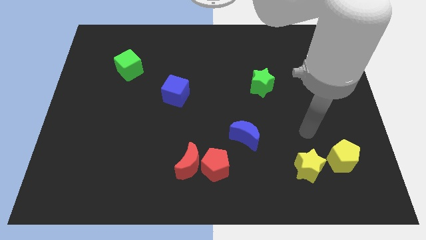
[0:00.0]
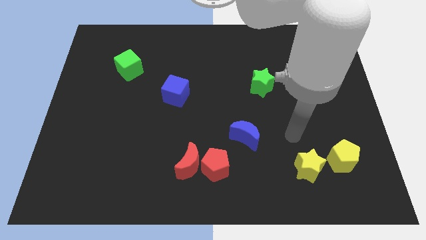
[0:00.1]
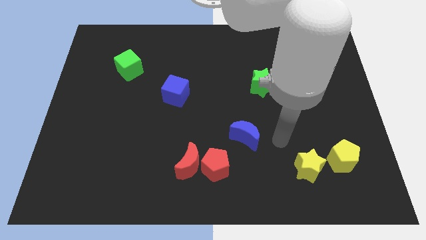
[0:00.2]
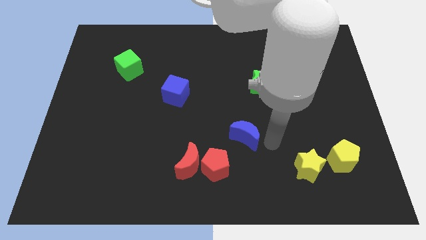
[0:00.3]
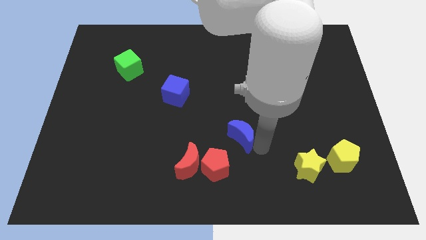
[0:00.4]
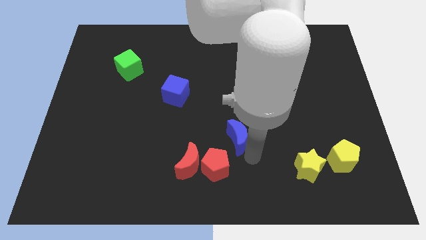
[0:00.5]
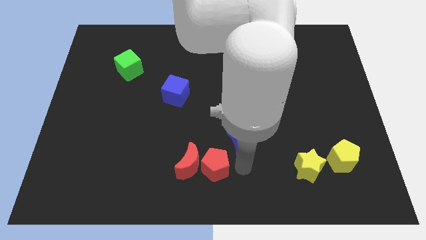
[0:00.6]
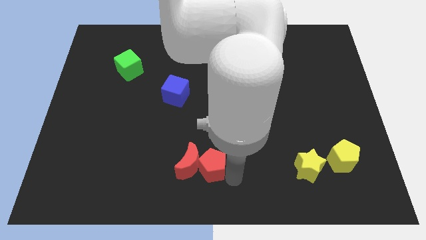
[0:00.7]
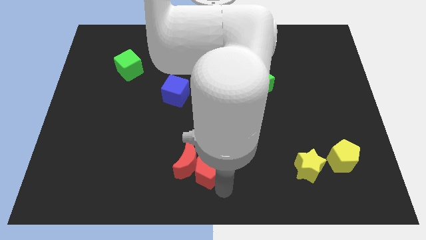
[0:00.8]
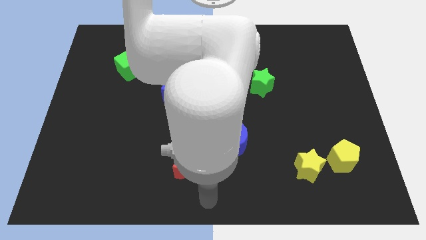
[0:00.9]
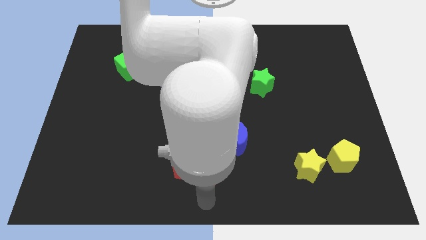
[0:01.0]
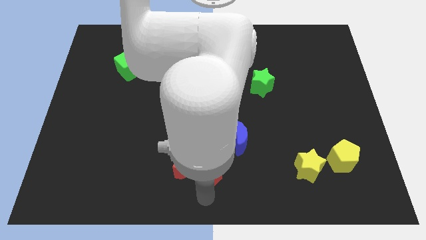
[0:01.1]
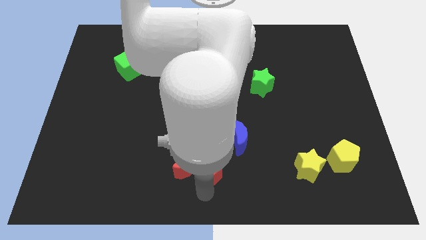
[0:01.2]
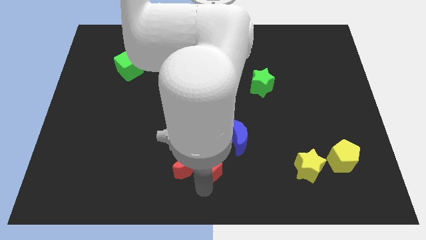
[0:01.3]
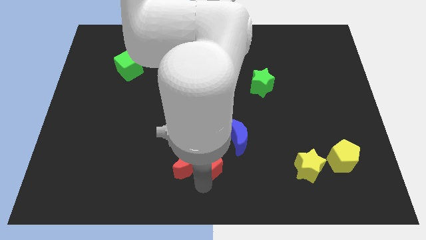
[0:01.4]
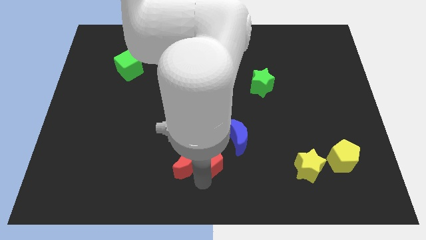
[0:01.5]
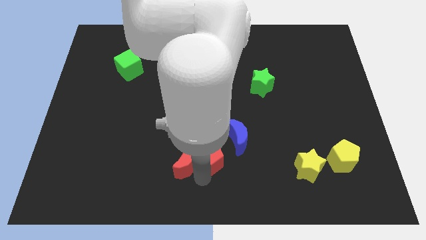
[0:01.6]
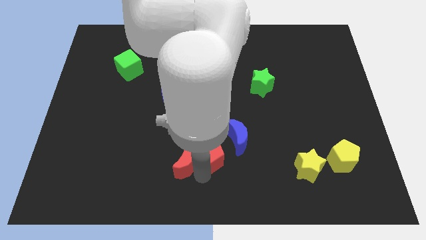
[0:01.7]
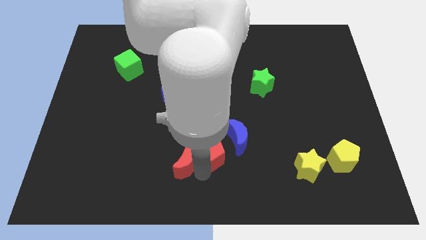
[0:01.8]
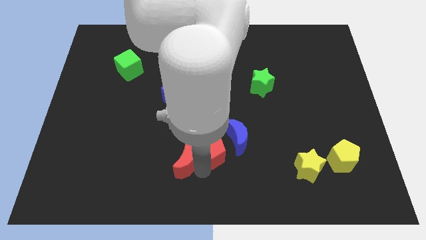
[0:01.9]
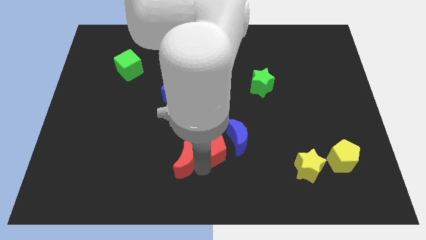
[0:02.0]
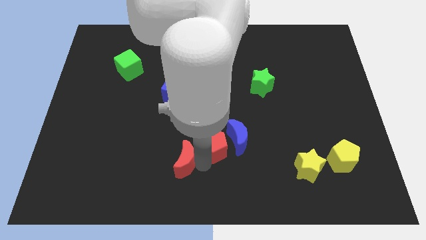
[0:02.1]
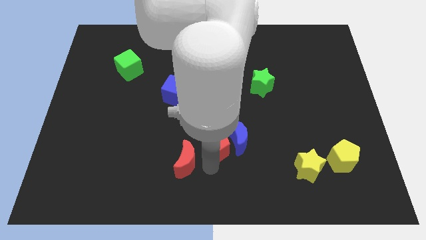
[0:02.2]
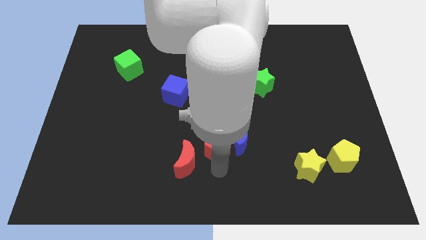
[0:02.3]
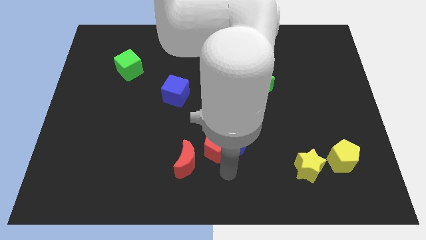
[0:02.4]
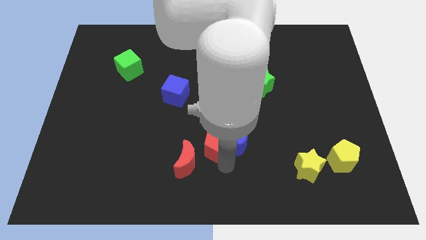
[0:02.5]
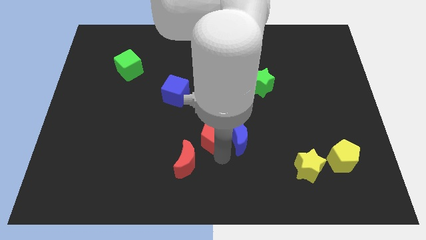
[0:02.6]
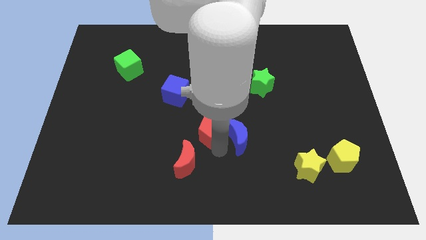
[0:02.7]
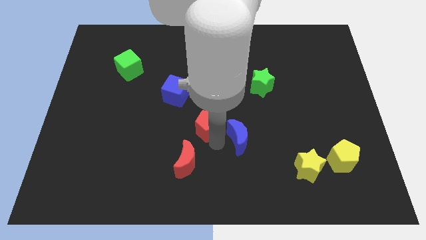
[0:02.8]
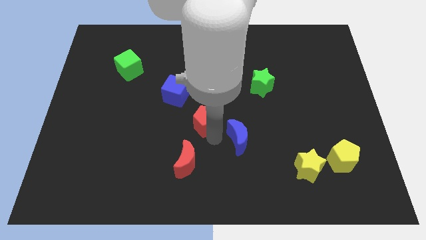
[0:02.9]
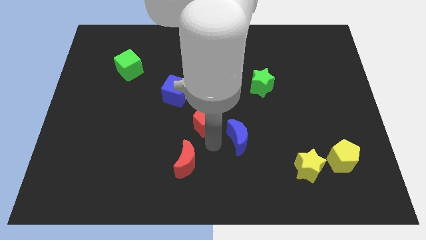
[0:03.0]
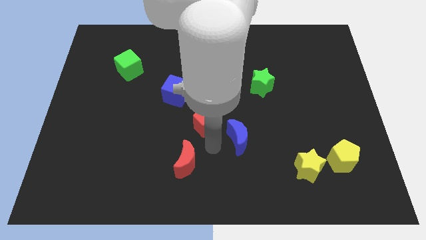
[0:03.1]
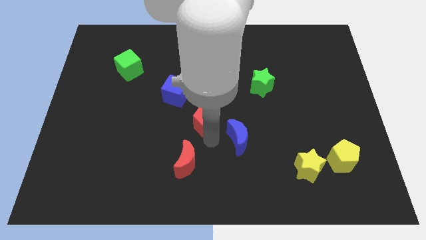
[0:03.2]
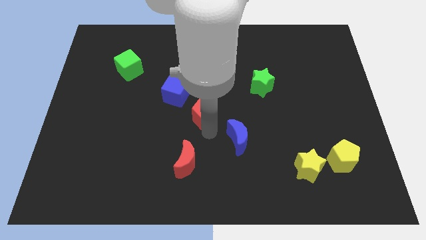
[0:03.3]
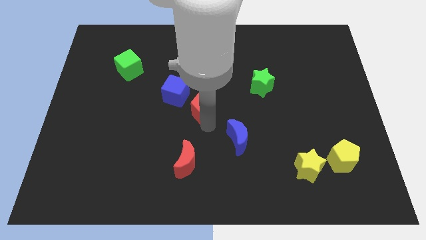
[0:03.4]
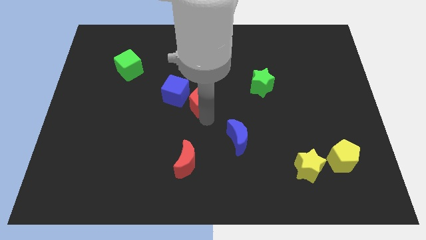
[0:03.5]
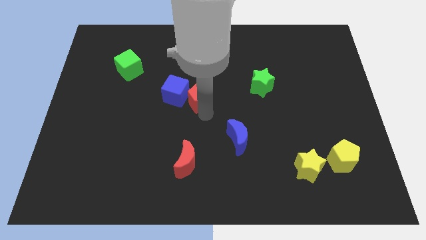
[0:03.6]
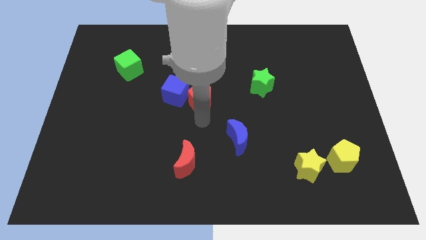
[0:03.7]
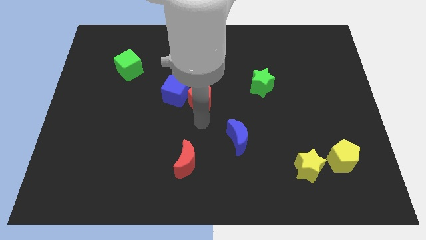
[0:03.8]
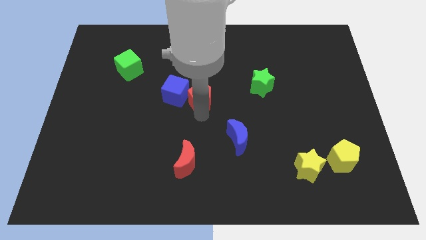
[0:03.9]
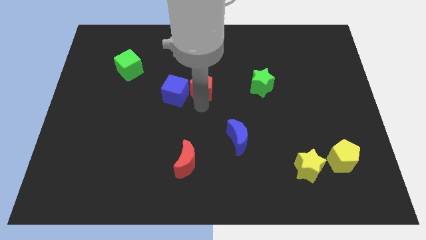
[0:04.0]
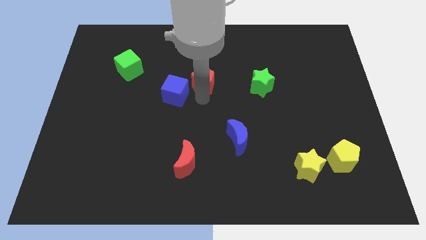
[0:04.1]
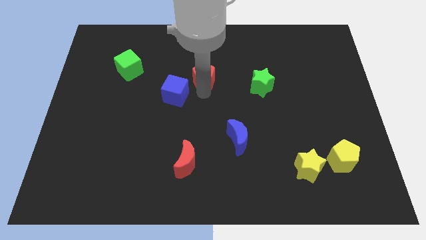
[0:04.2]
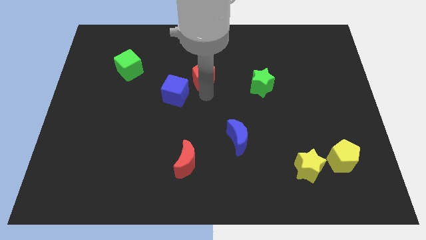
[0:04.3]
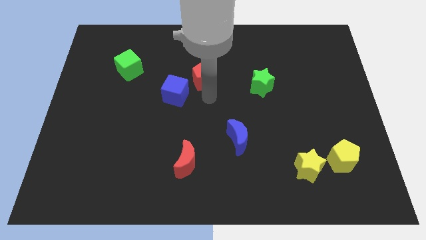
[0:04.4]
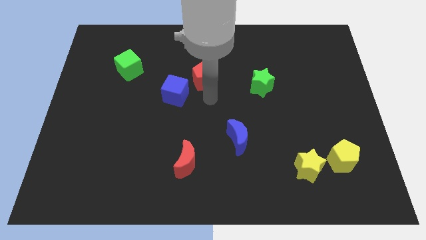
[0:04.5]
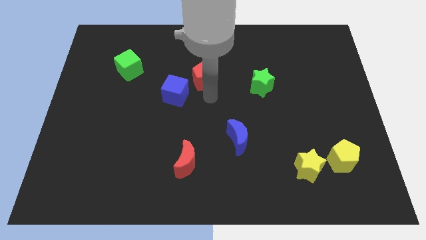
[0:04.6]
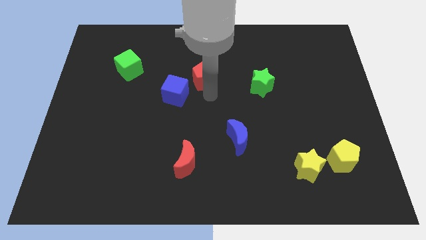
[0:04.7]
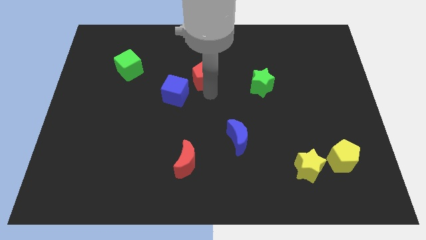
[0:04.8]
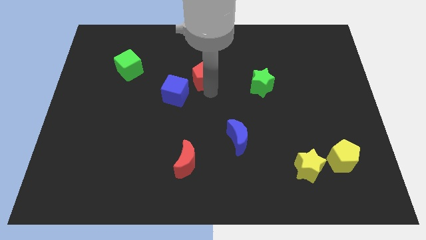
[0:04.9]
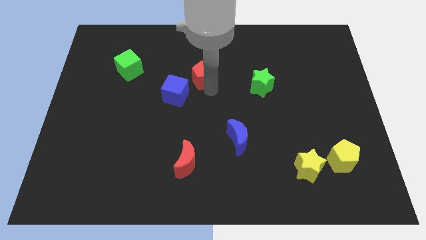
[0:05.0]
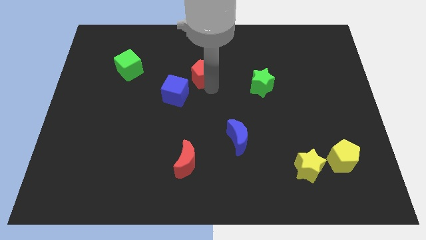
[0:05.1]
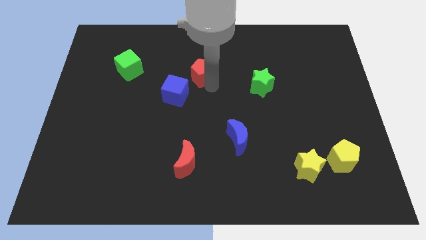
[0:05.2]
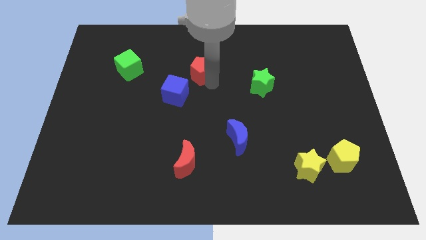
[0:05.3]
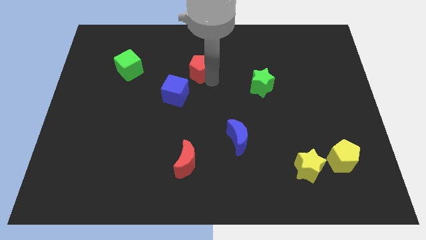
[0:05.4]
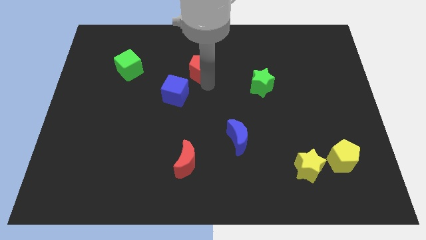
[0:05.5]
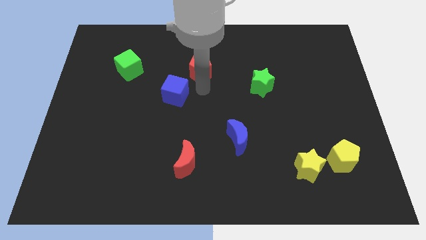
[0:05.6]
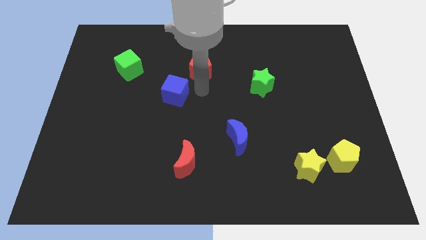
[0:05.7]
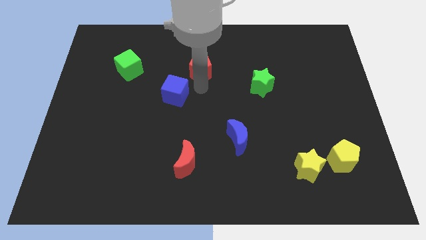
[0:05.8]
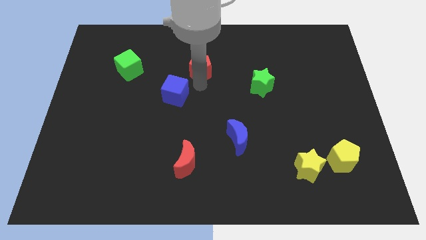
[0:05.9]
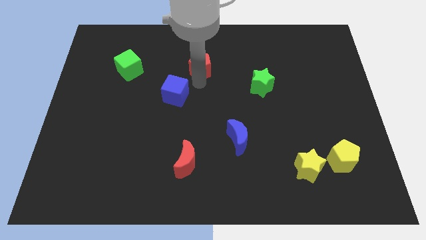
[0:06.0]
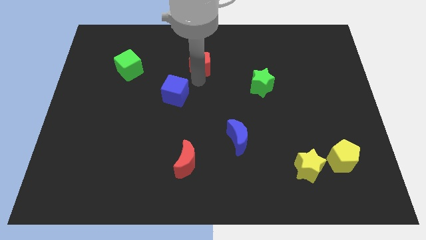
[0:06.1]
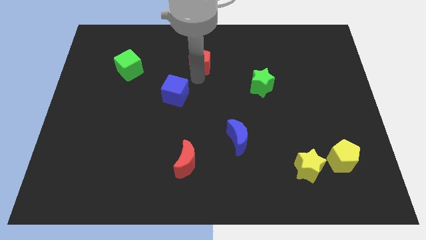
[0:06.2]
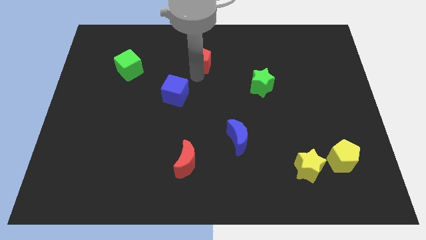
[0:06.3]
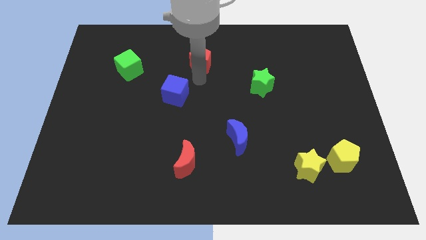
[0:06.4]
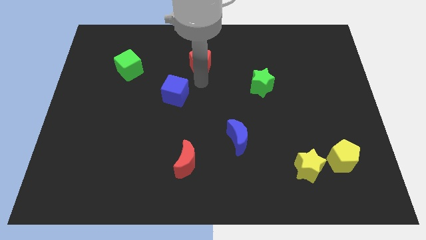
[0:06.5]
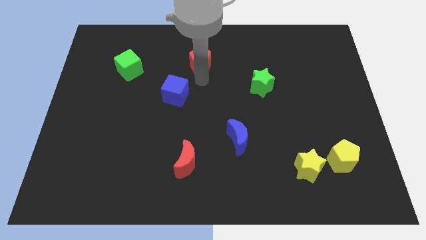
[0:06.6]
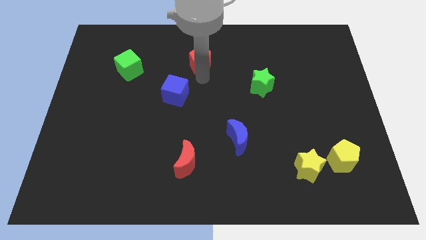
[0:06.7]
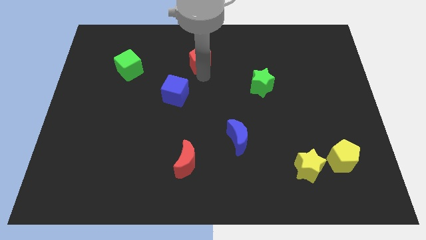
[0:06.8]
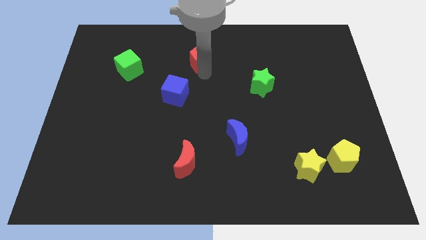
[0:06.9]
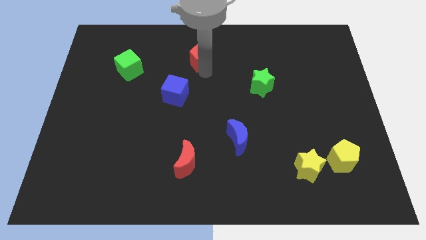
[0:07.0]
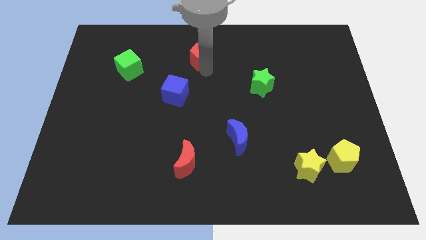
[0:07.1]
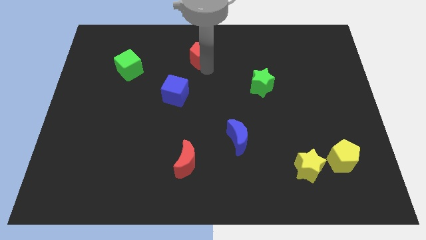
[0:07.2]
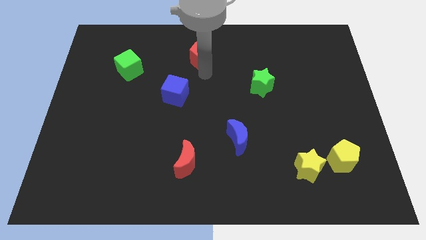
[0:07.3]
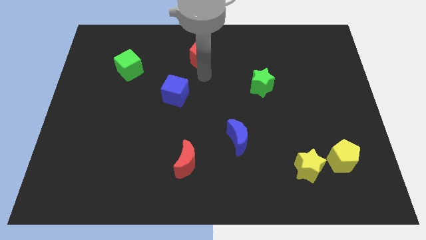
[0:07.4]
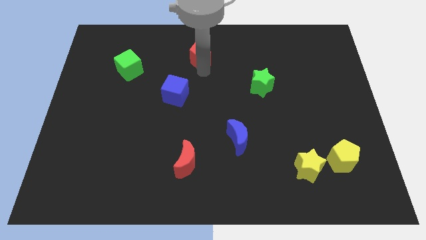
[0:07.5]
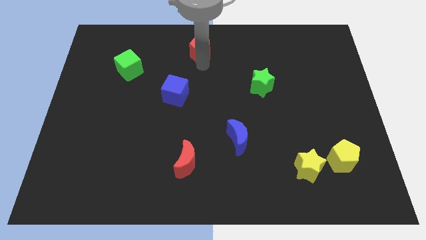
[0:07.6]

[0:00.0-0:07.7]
put the red pentagon to the top
